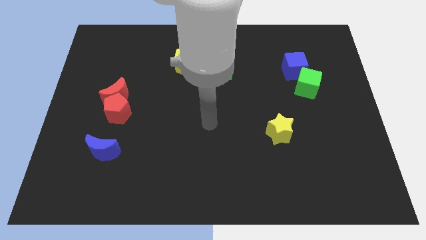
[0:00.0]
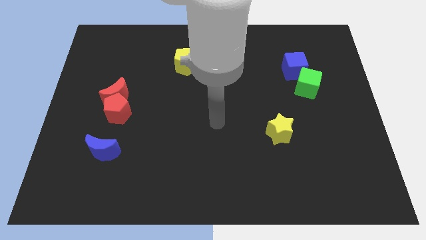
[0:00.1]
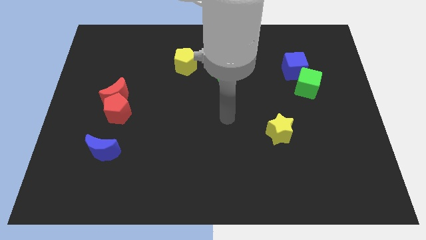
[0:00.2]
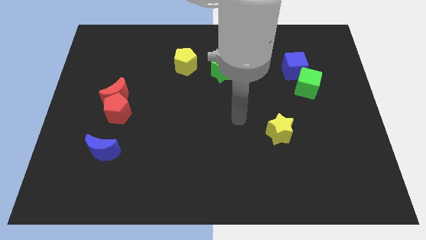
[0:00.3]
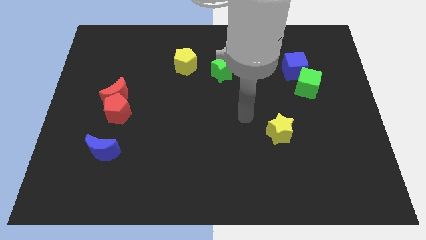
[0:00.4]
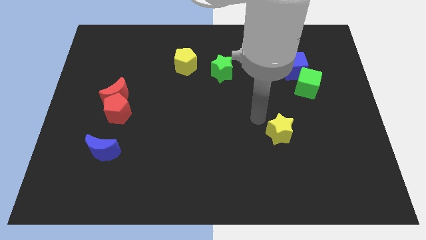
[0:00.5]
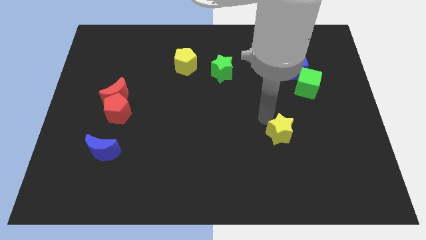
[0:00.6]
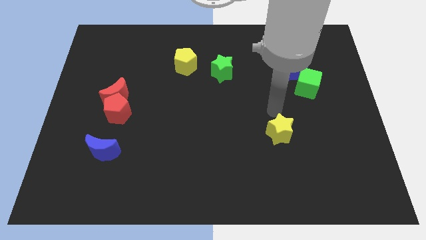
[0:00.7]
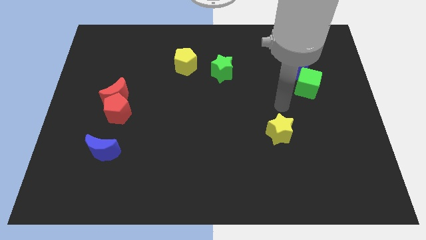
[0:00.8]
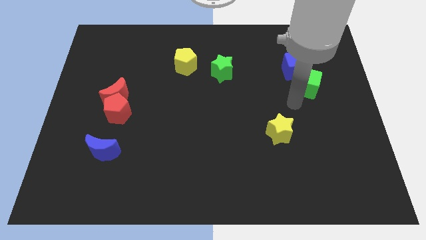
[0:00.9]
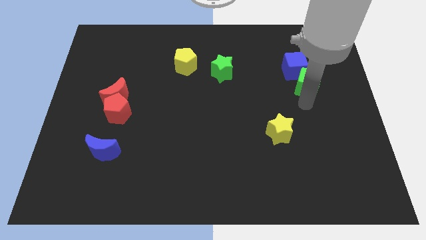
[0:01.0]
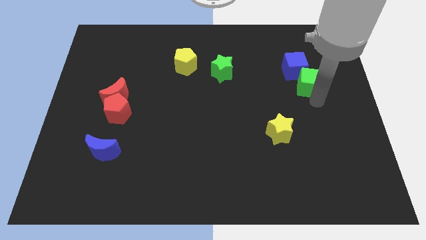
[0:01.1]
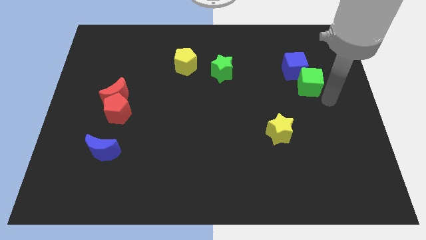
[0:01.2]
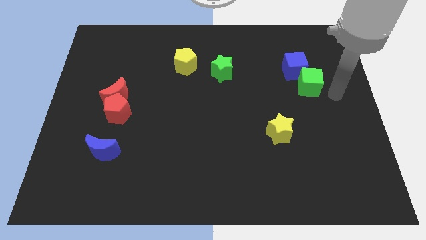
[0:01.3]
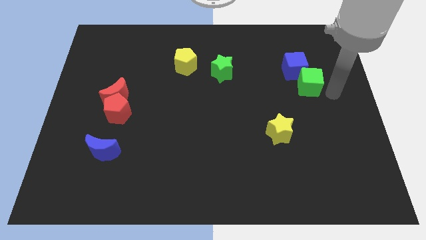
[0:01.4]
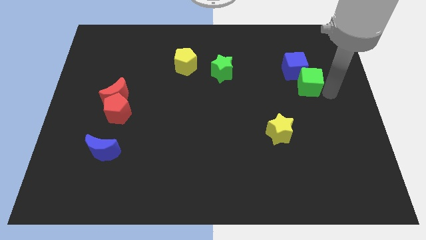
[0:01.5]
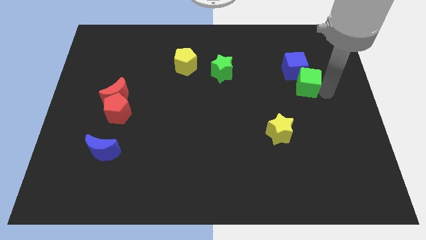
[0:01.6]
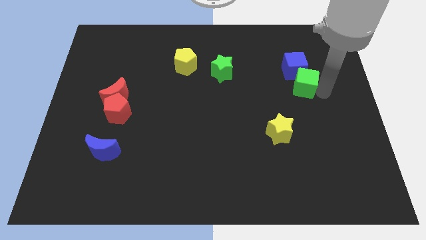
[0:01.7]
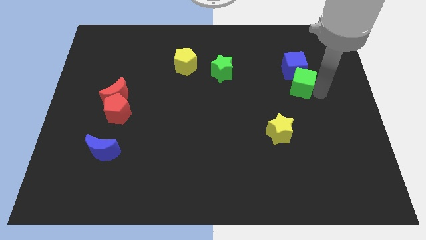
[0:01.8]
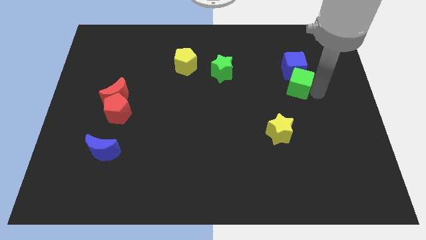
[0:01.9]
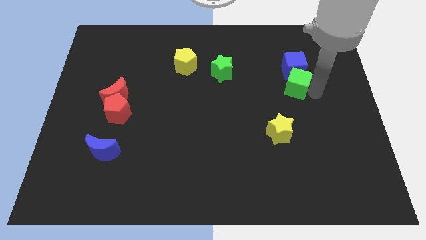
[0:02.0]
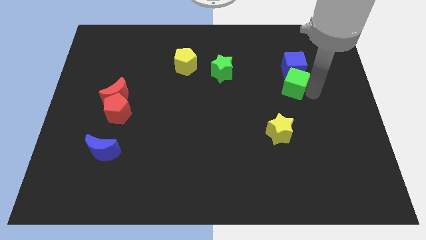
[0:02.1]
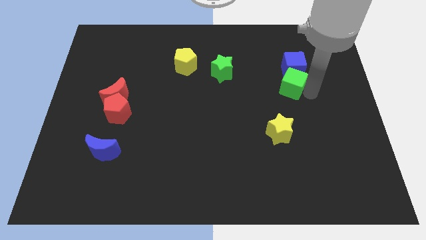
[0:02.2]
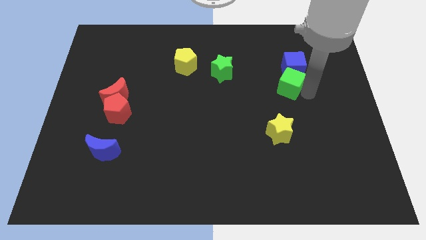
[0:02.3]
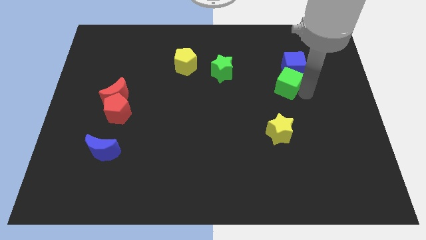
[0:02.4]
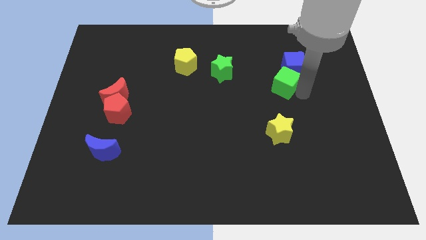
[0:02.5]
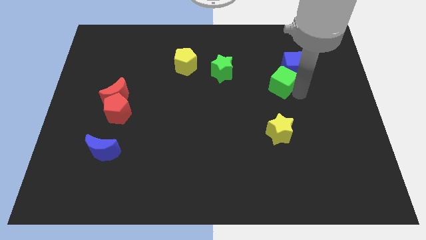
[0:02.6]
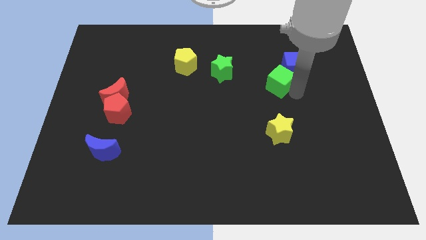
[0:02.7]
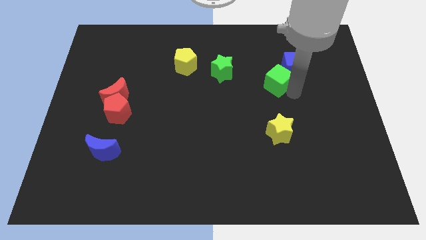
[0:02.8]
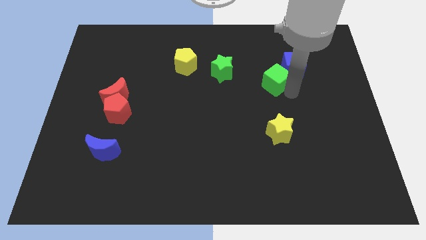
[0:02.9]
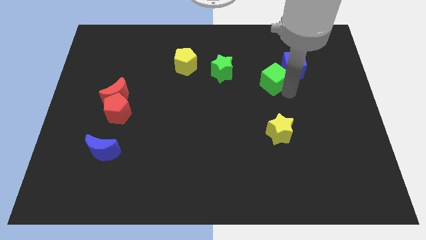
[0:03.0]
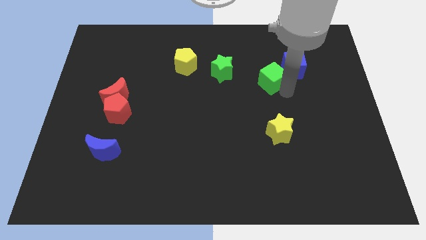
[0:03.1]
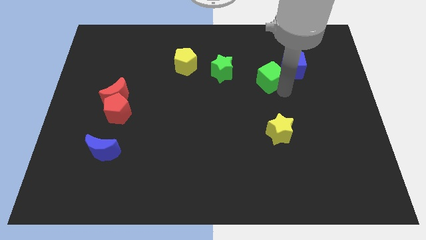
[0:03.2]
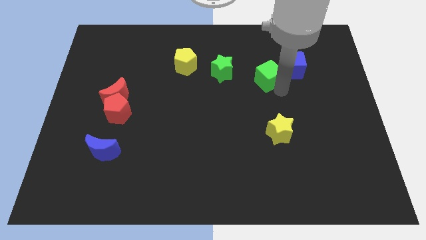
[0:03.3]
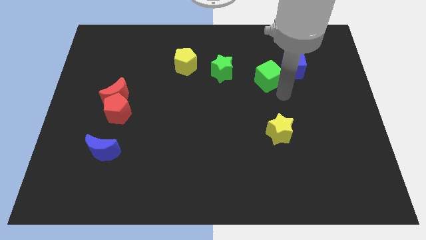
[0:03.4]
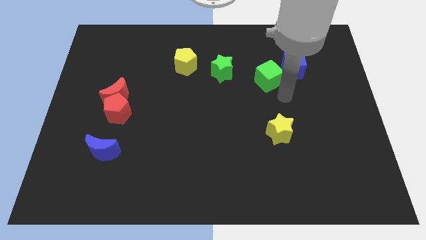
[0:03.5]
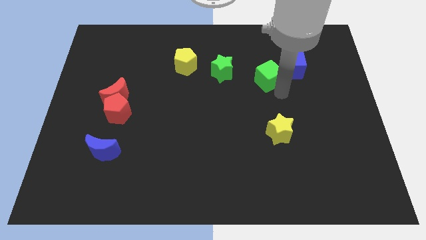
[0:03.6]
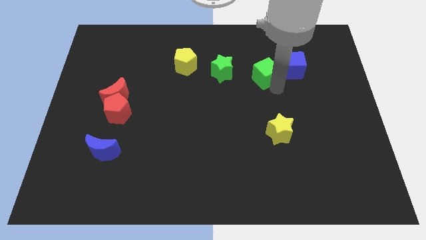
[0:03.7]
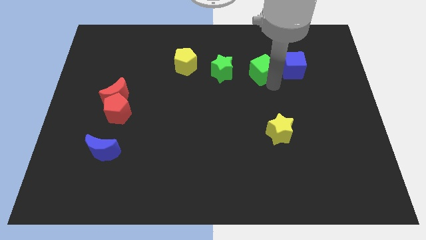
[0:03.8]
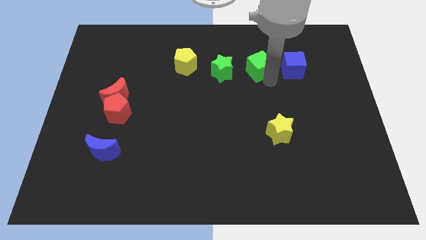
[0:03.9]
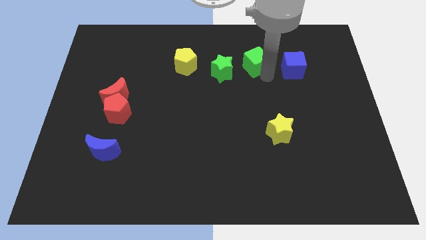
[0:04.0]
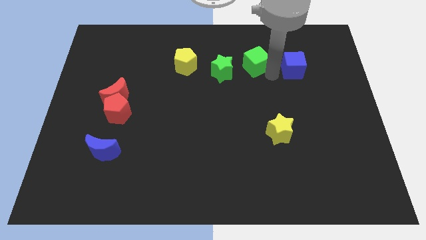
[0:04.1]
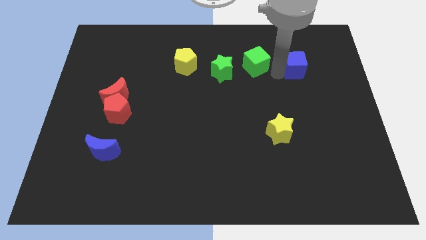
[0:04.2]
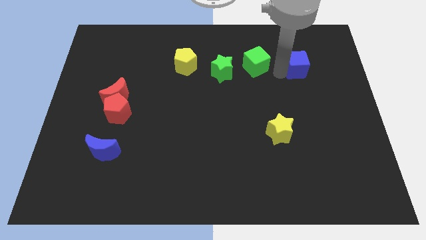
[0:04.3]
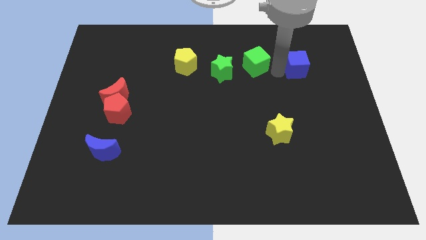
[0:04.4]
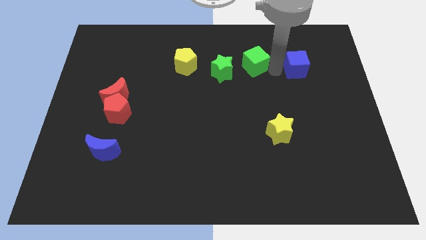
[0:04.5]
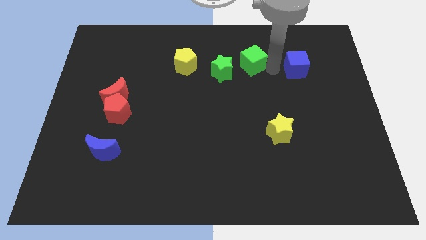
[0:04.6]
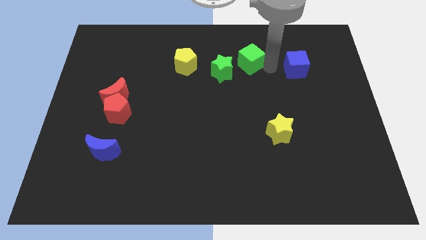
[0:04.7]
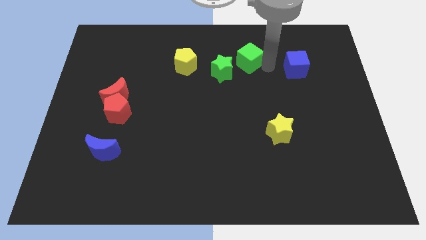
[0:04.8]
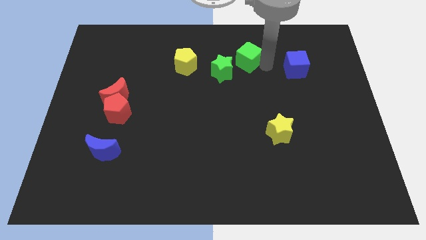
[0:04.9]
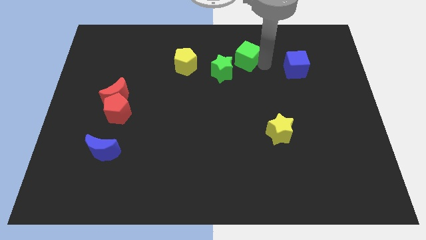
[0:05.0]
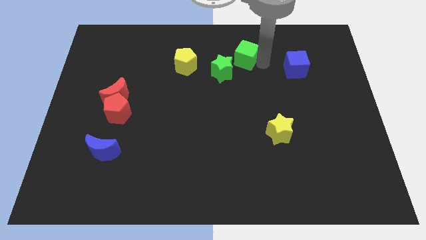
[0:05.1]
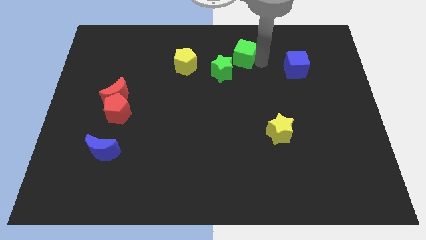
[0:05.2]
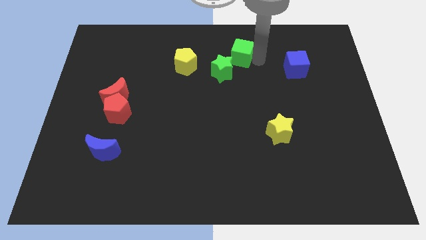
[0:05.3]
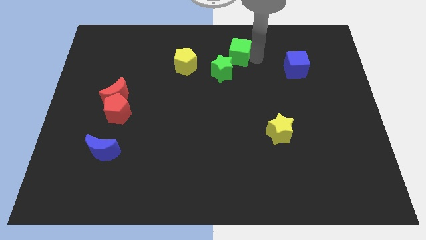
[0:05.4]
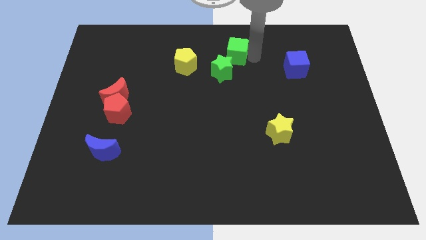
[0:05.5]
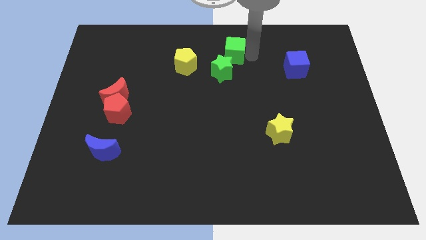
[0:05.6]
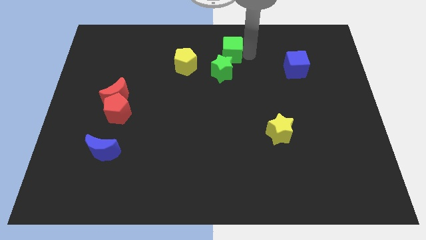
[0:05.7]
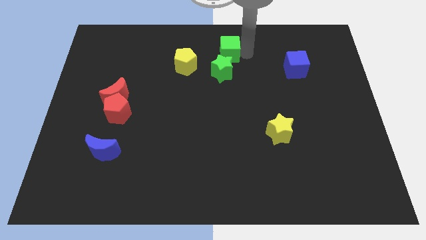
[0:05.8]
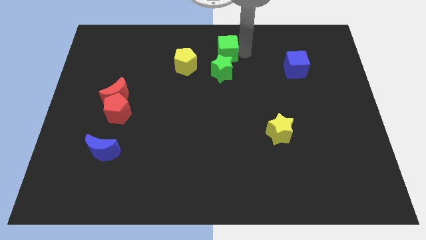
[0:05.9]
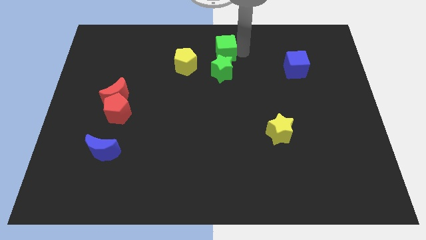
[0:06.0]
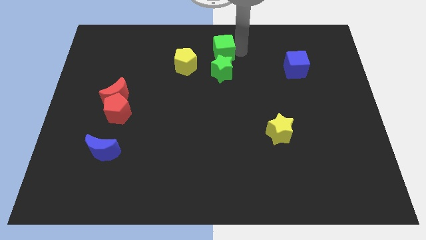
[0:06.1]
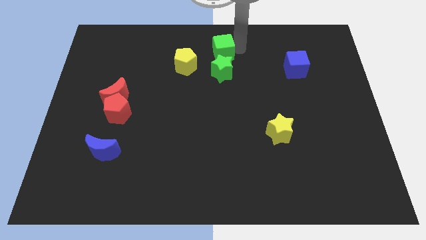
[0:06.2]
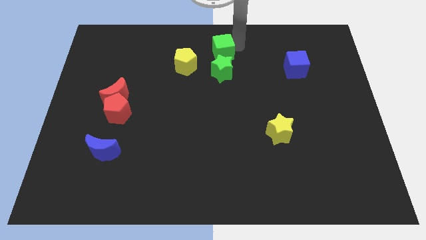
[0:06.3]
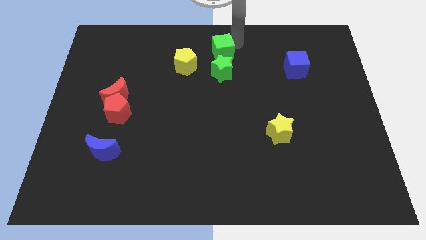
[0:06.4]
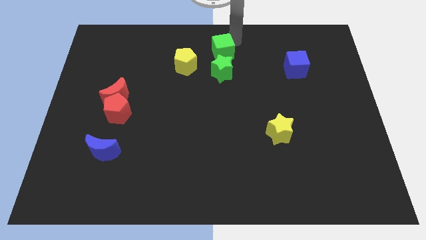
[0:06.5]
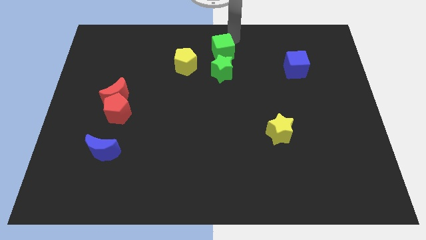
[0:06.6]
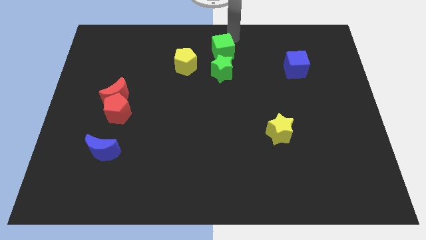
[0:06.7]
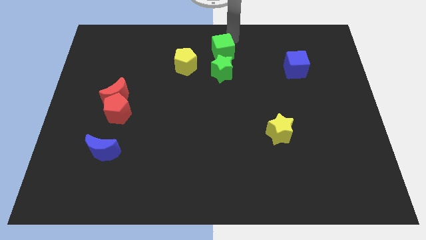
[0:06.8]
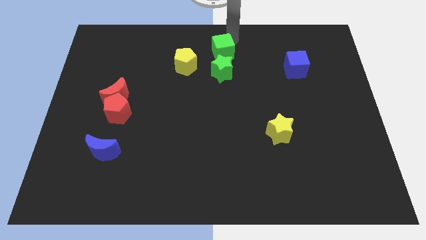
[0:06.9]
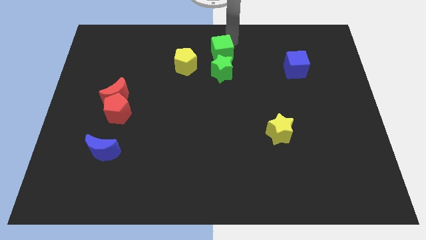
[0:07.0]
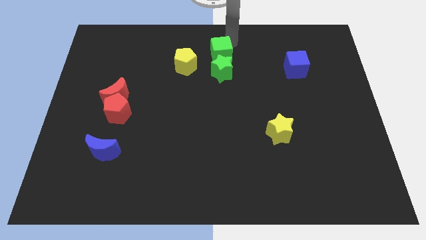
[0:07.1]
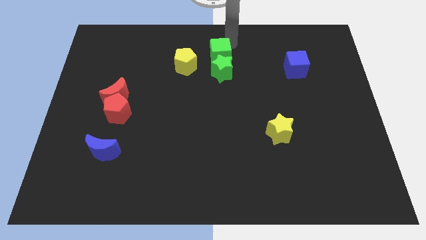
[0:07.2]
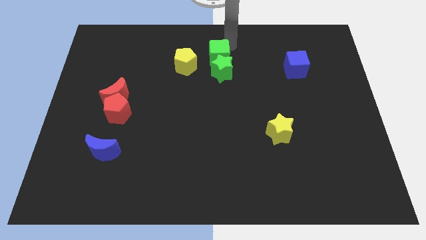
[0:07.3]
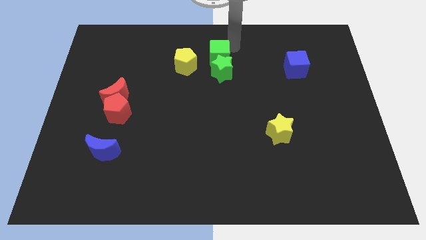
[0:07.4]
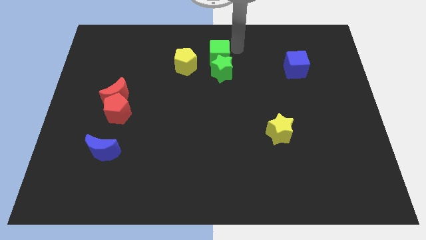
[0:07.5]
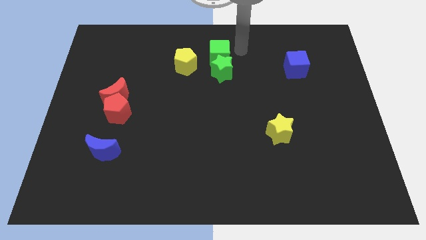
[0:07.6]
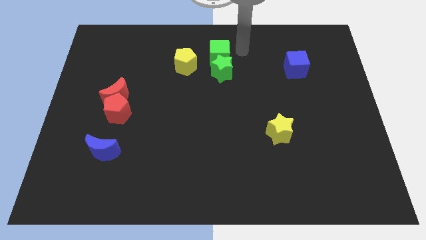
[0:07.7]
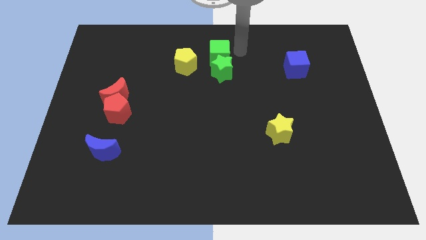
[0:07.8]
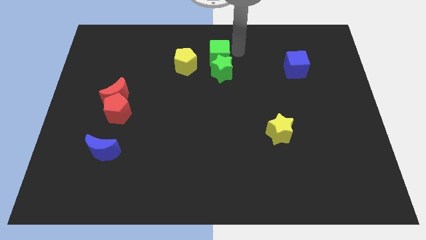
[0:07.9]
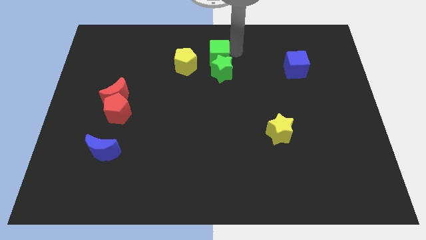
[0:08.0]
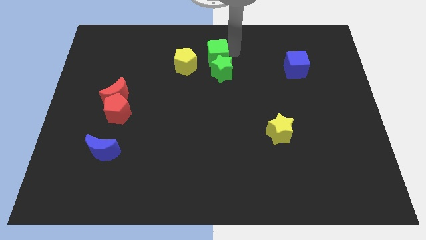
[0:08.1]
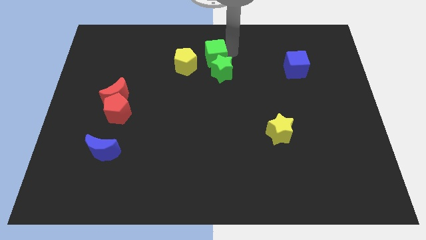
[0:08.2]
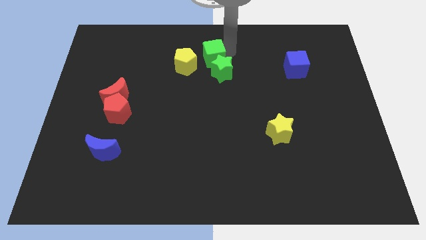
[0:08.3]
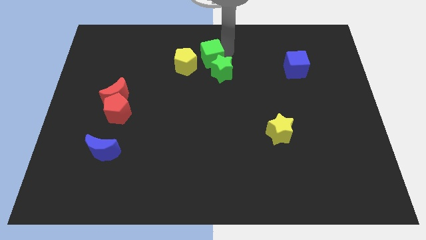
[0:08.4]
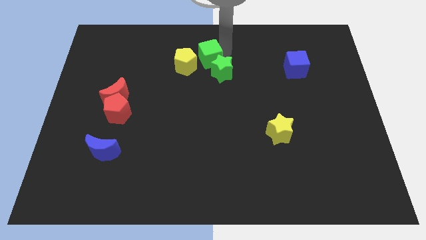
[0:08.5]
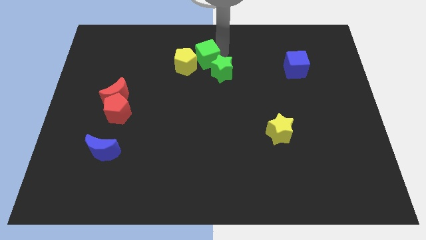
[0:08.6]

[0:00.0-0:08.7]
push the green cube towards the yellow pentagon
